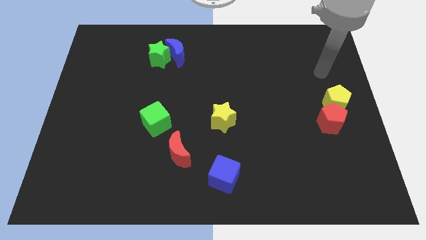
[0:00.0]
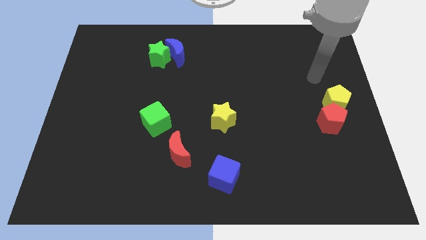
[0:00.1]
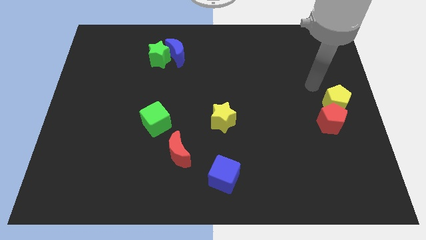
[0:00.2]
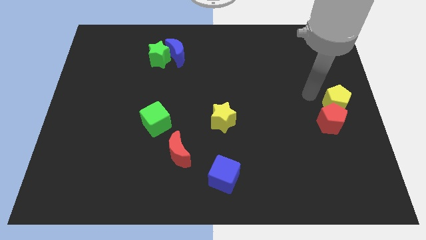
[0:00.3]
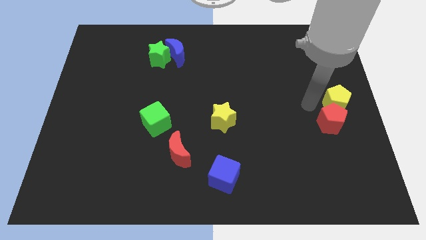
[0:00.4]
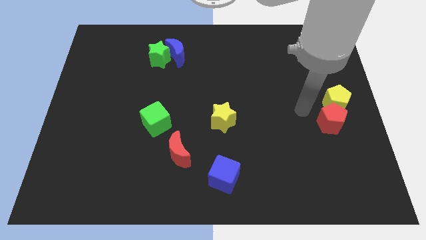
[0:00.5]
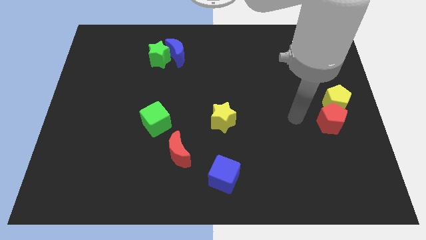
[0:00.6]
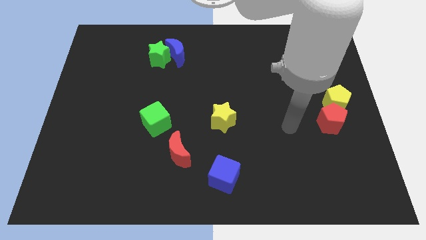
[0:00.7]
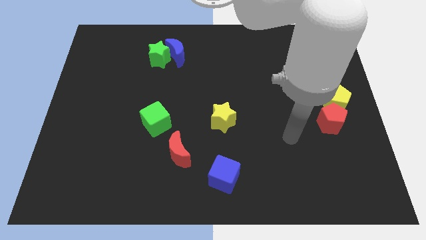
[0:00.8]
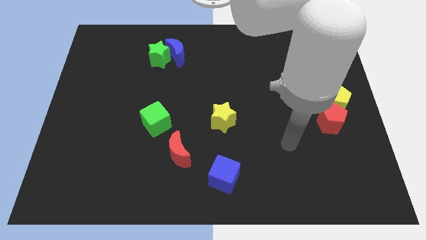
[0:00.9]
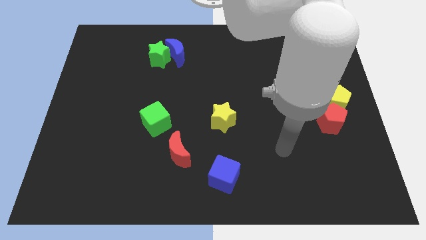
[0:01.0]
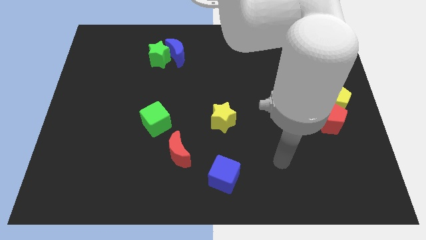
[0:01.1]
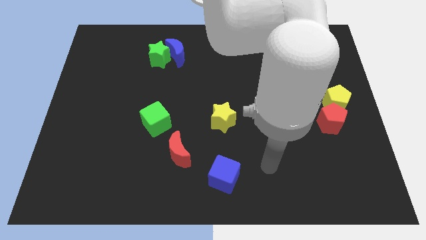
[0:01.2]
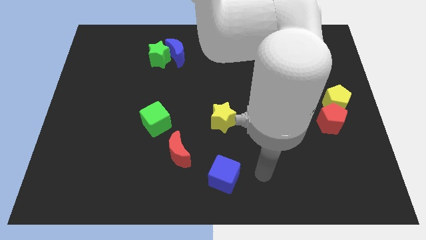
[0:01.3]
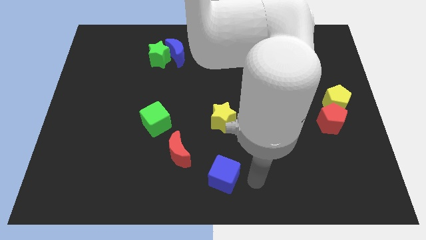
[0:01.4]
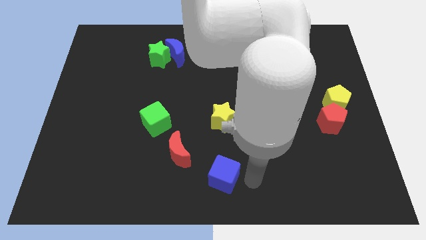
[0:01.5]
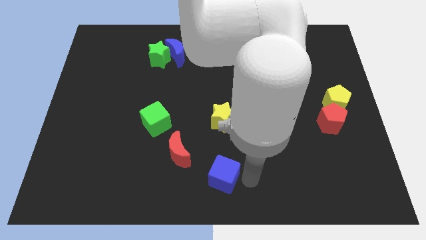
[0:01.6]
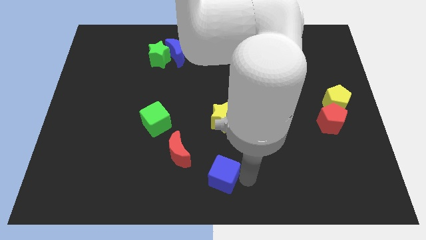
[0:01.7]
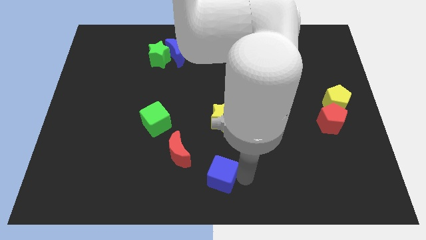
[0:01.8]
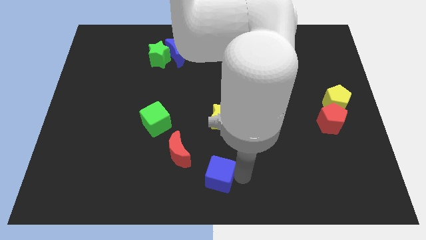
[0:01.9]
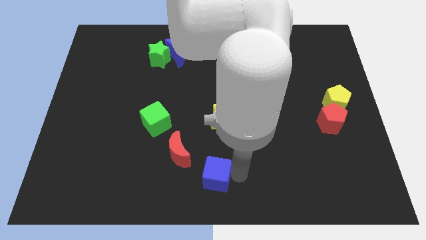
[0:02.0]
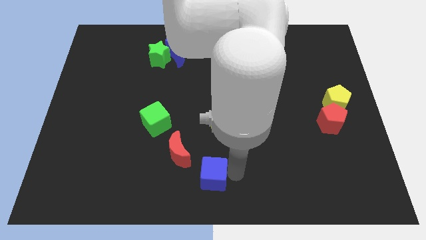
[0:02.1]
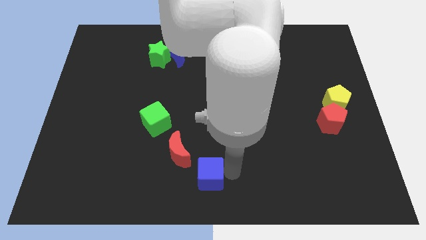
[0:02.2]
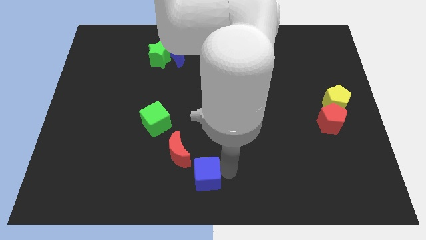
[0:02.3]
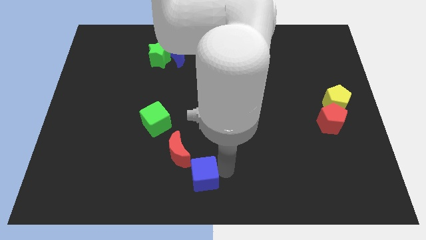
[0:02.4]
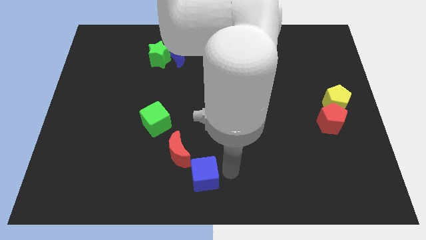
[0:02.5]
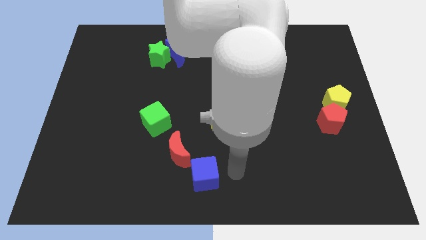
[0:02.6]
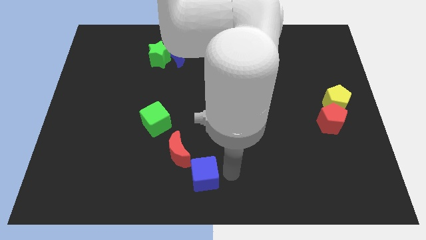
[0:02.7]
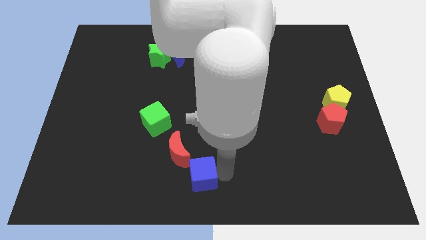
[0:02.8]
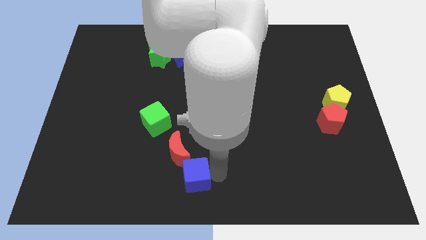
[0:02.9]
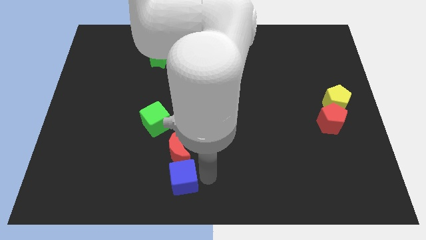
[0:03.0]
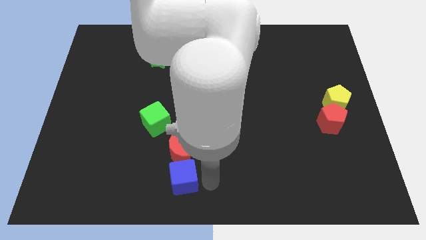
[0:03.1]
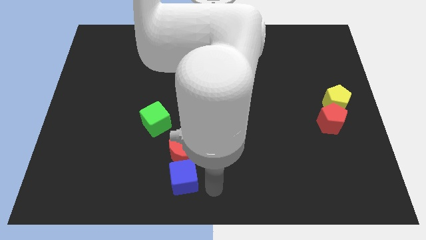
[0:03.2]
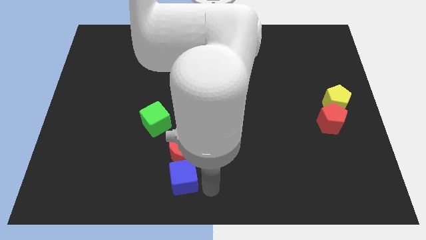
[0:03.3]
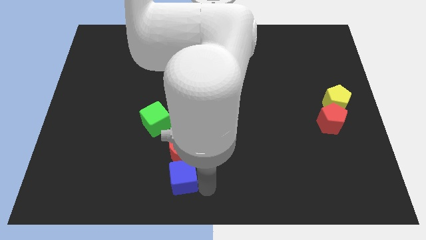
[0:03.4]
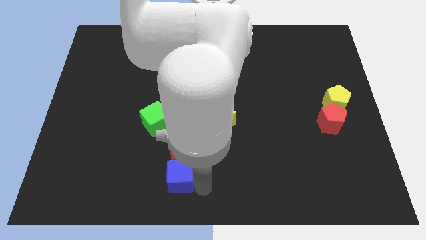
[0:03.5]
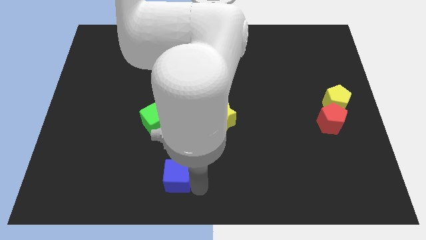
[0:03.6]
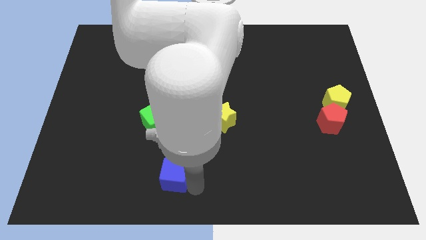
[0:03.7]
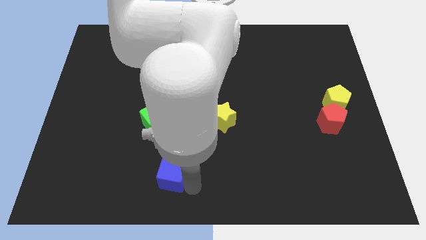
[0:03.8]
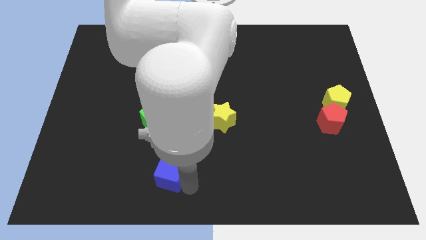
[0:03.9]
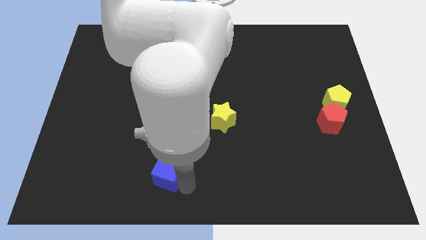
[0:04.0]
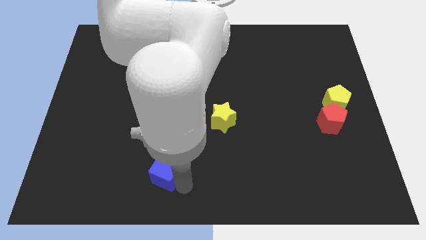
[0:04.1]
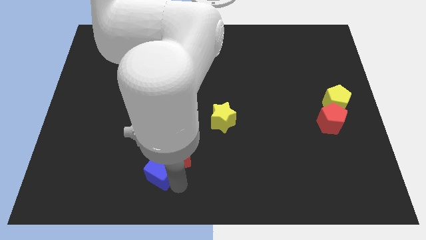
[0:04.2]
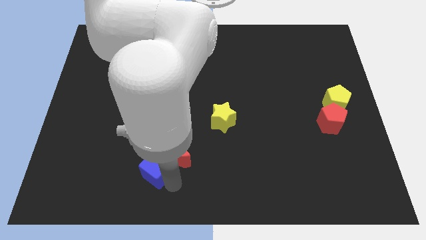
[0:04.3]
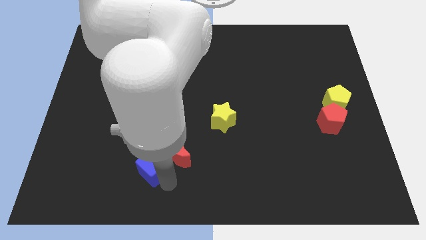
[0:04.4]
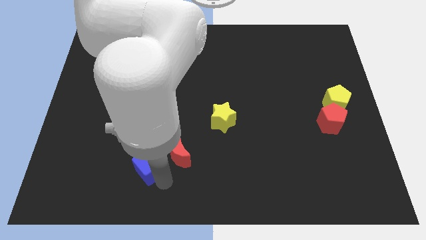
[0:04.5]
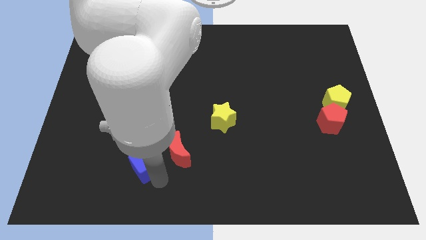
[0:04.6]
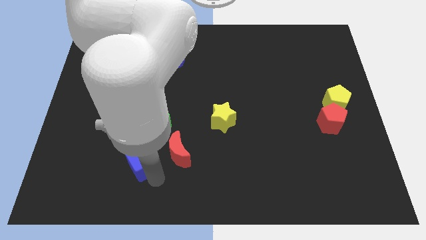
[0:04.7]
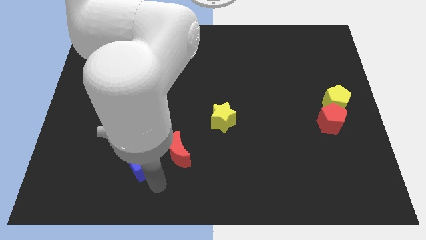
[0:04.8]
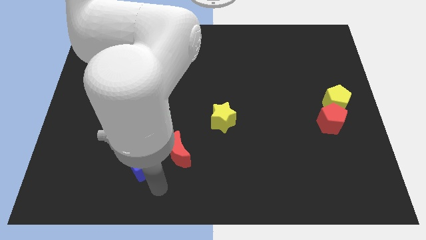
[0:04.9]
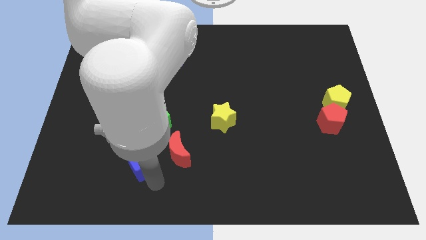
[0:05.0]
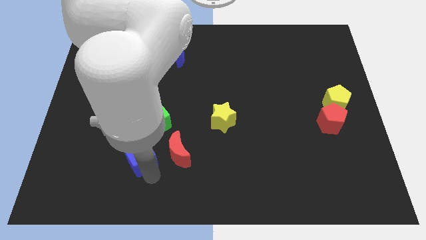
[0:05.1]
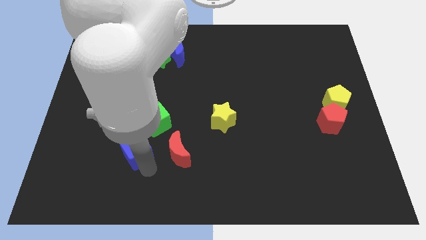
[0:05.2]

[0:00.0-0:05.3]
move the blue cube to the bottom left of the green cube

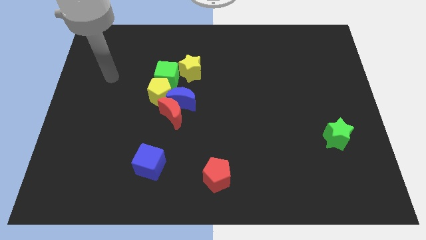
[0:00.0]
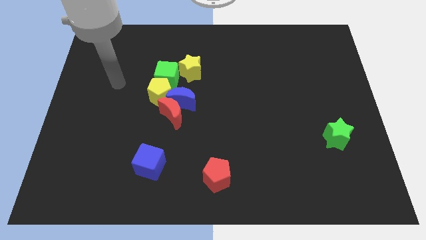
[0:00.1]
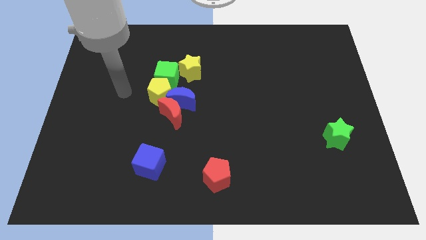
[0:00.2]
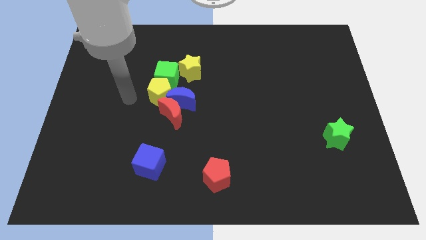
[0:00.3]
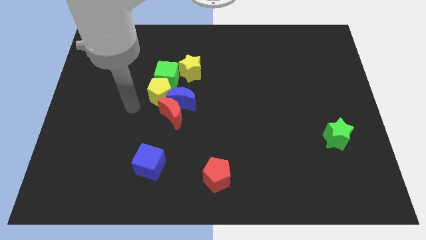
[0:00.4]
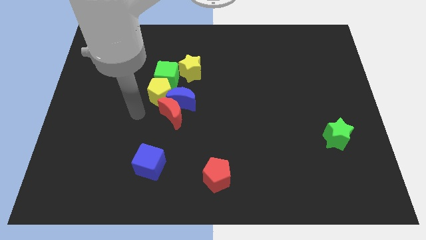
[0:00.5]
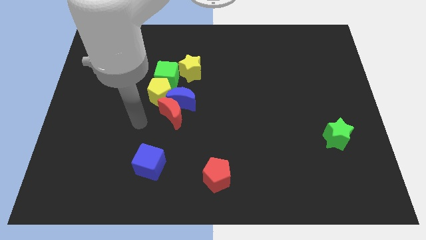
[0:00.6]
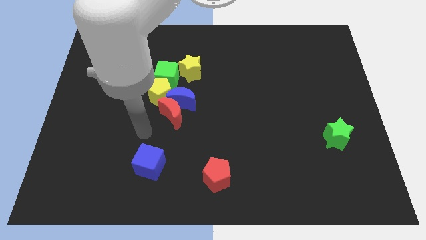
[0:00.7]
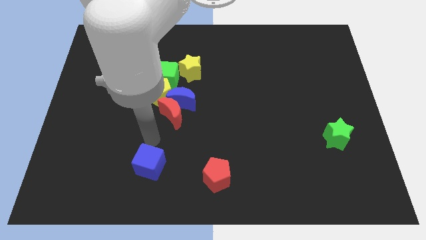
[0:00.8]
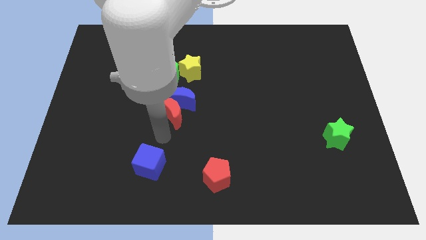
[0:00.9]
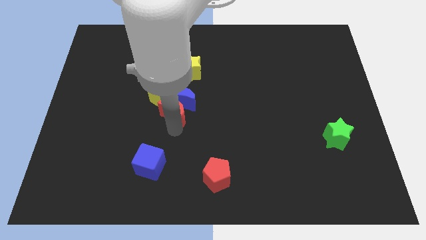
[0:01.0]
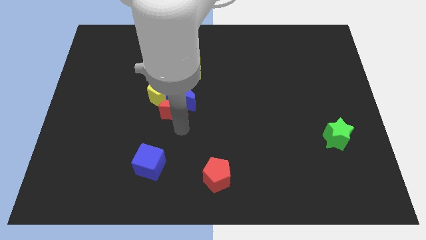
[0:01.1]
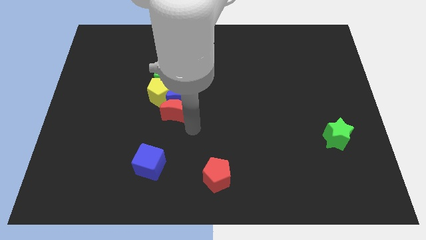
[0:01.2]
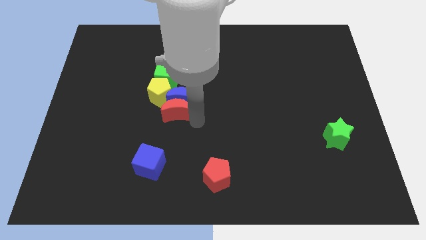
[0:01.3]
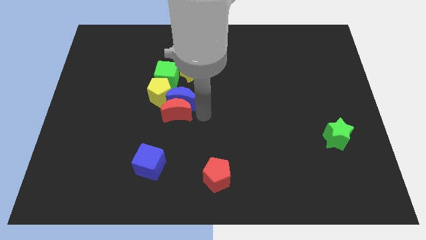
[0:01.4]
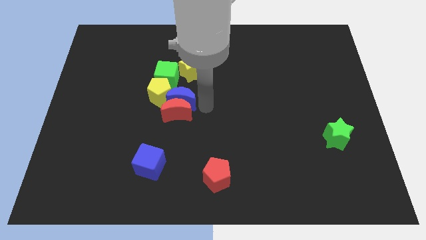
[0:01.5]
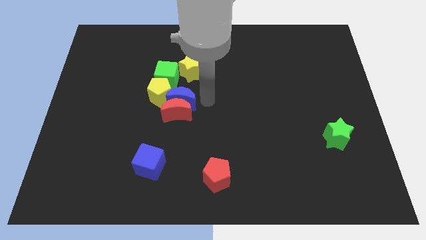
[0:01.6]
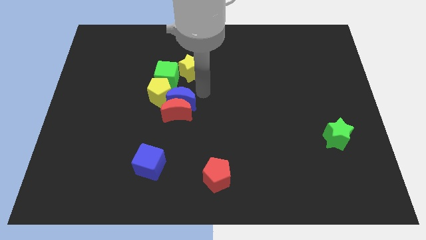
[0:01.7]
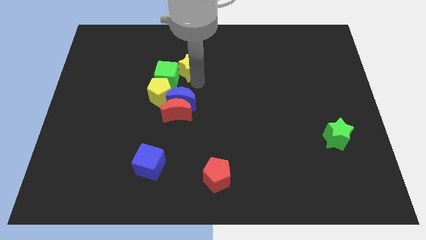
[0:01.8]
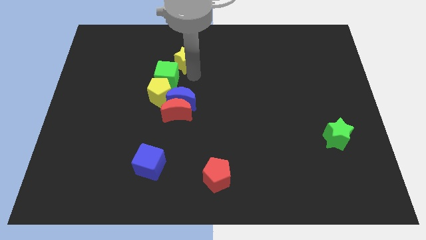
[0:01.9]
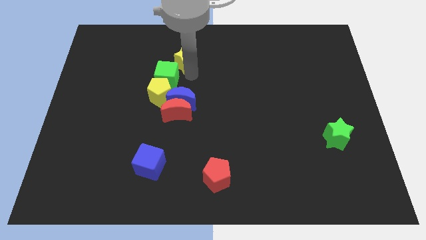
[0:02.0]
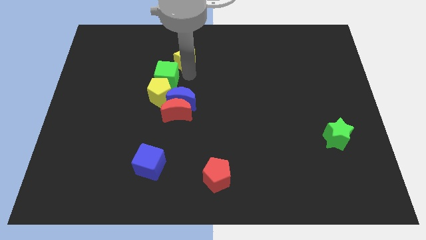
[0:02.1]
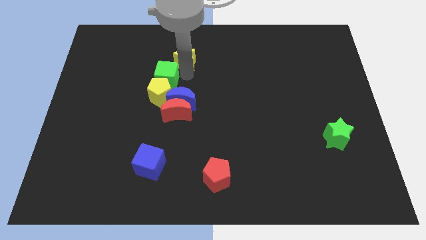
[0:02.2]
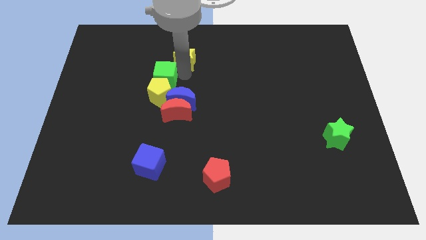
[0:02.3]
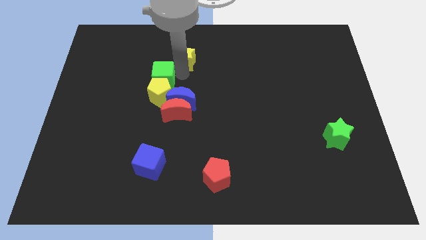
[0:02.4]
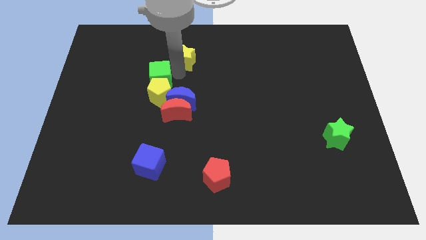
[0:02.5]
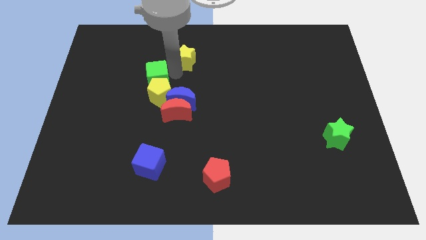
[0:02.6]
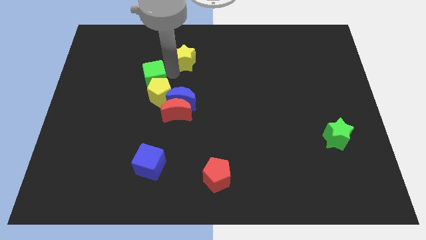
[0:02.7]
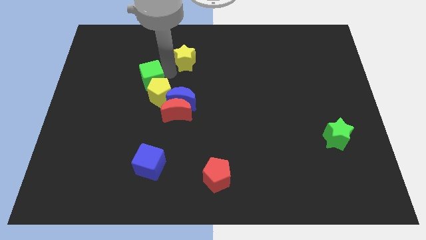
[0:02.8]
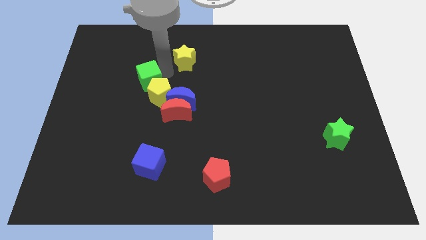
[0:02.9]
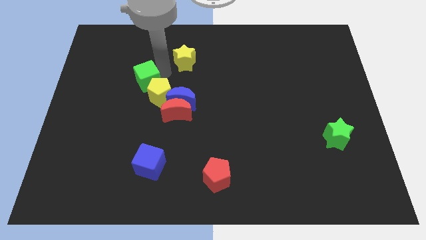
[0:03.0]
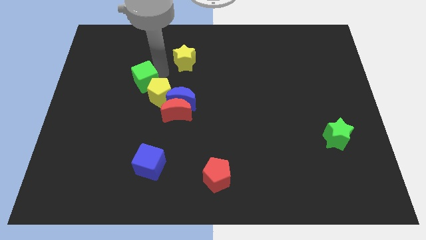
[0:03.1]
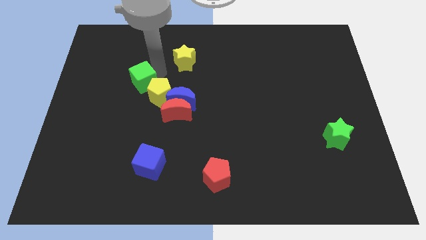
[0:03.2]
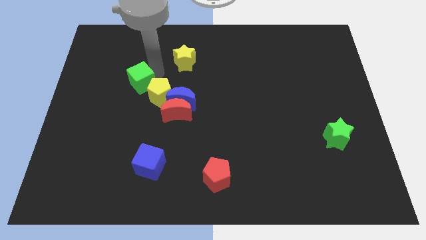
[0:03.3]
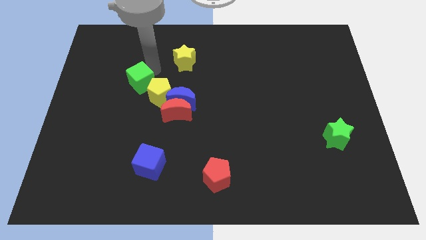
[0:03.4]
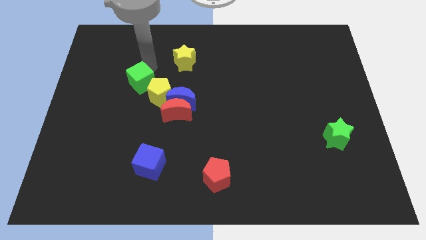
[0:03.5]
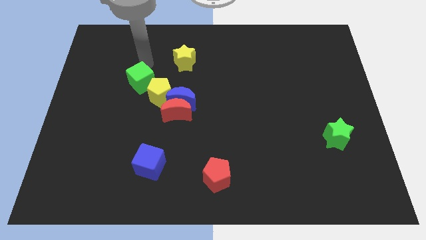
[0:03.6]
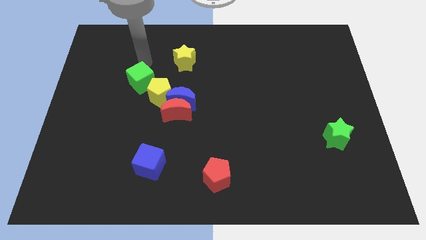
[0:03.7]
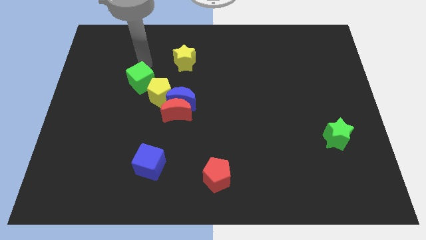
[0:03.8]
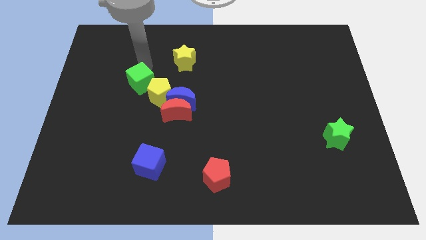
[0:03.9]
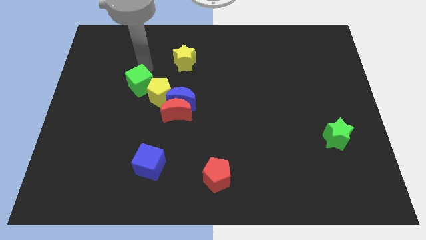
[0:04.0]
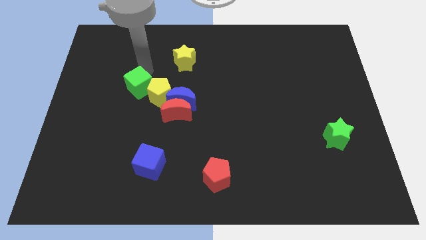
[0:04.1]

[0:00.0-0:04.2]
slide the green cube to the left of the blue moon
